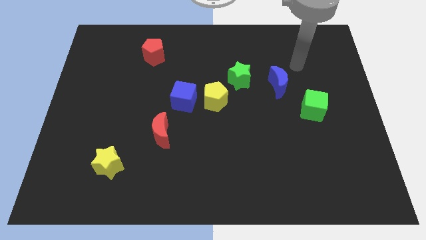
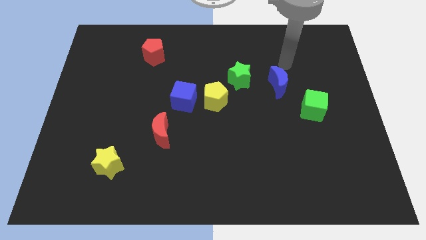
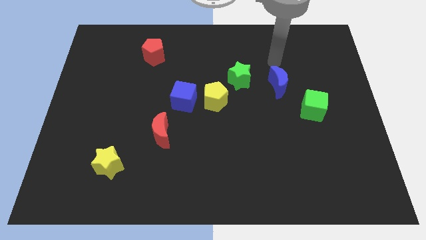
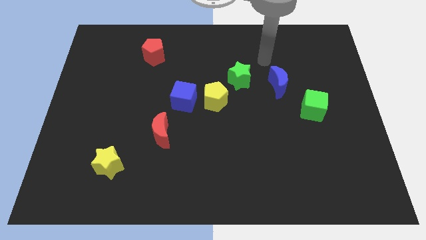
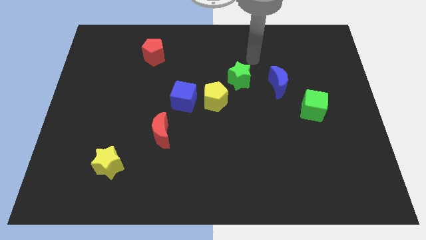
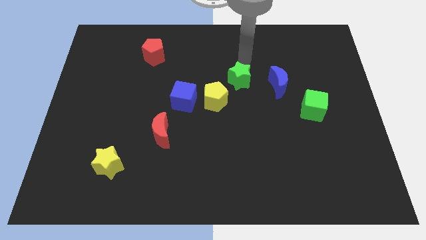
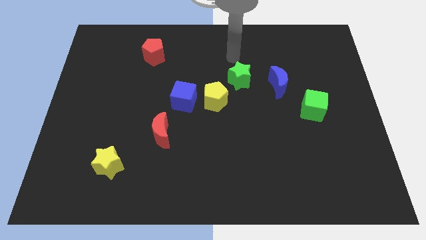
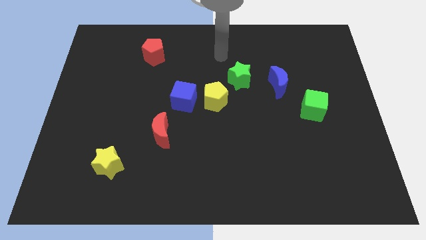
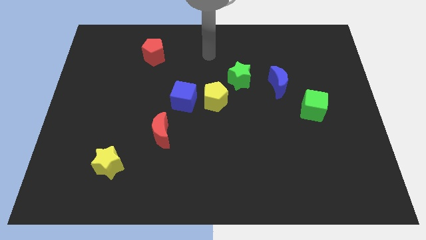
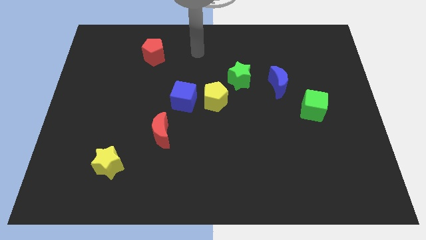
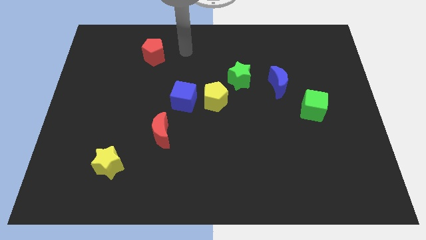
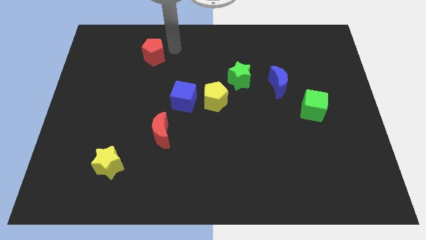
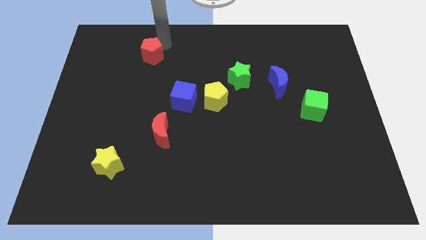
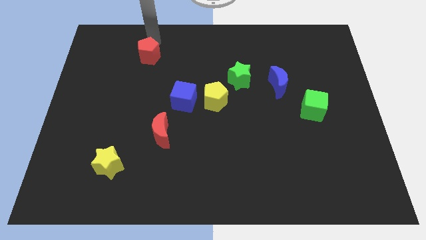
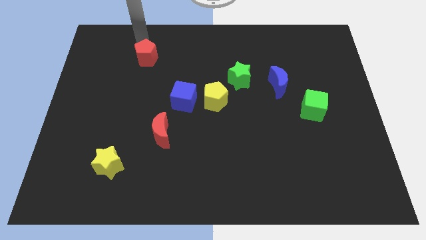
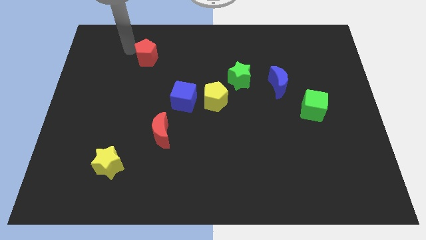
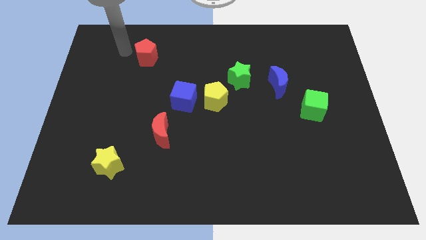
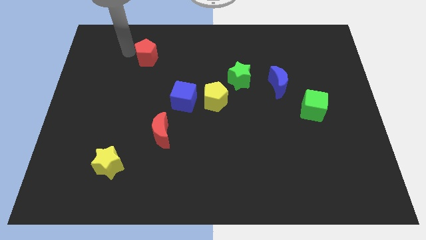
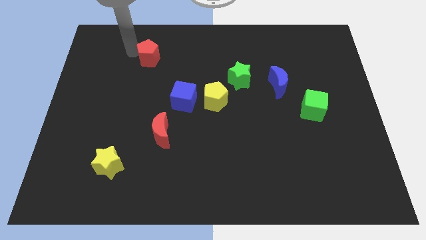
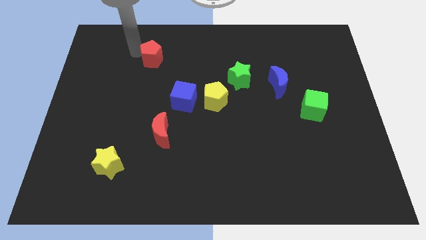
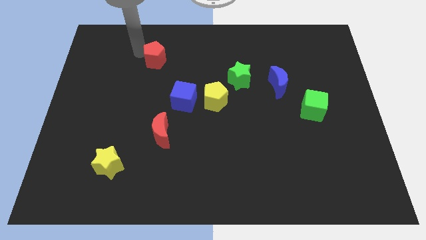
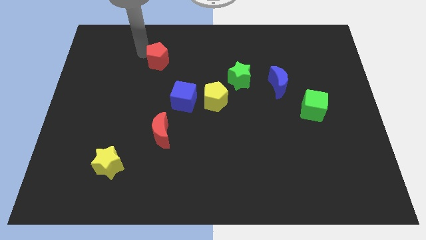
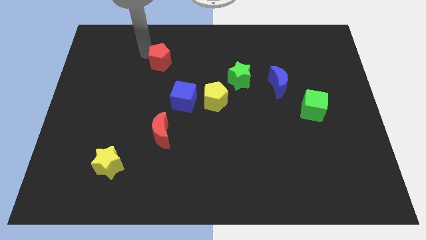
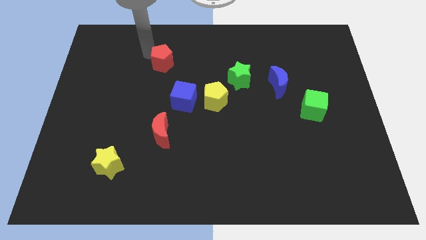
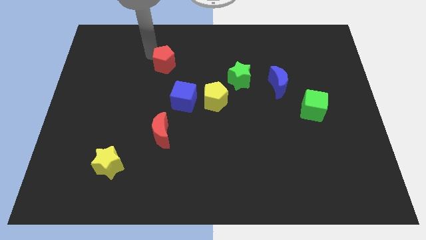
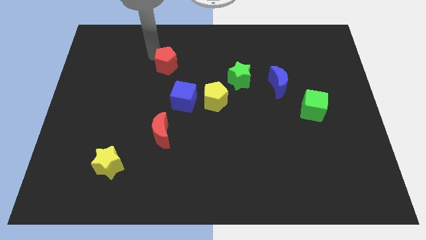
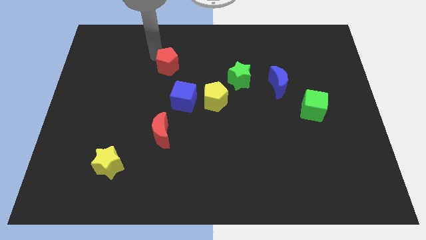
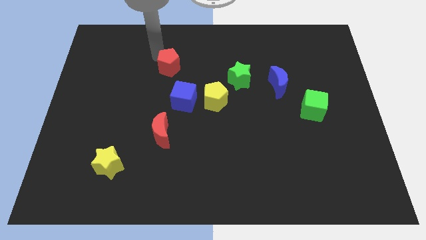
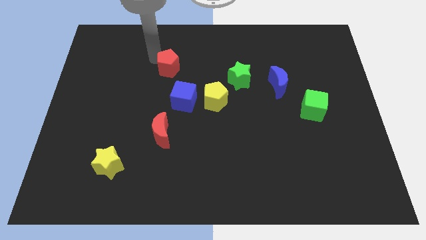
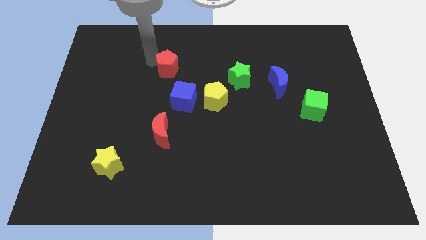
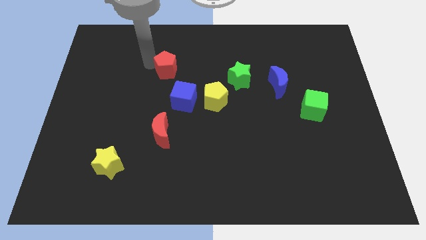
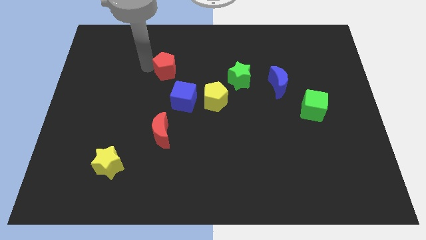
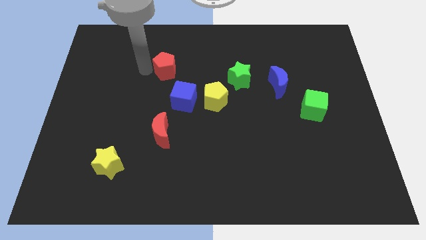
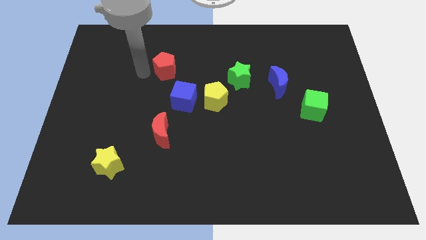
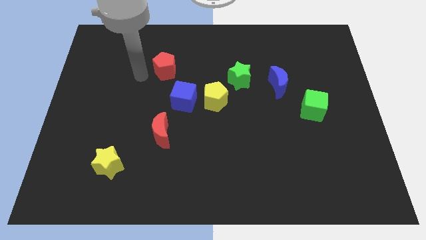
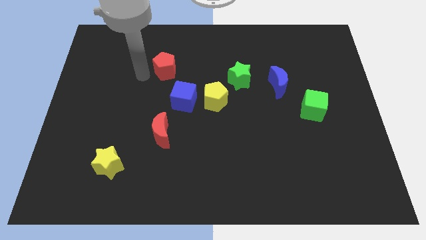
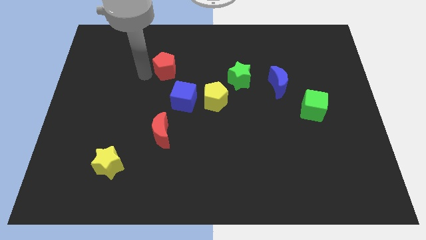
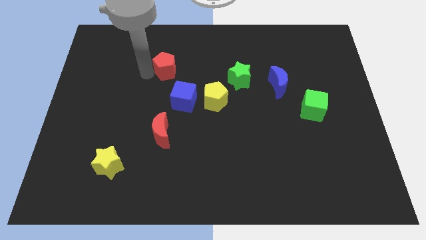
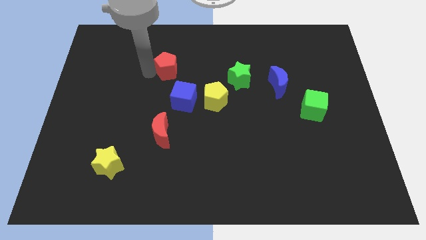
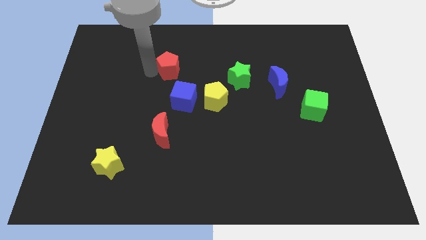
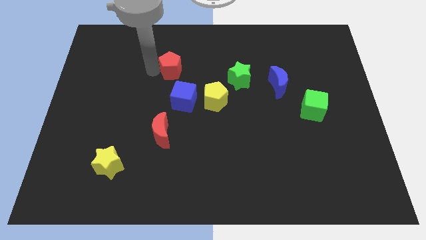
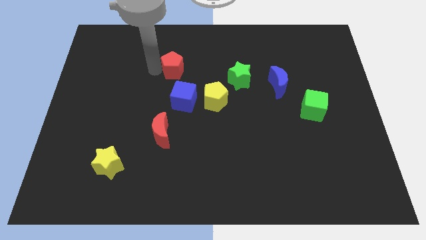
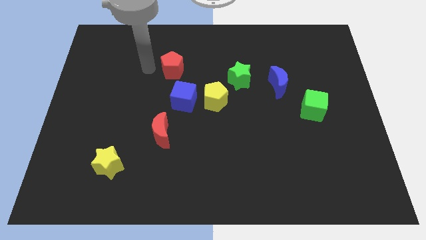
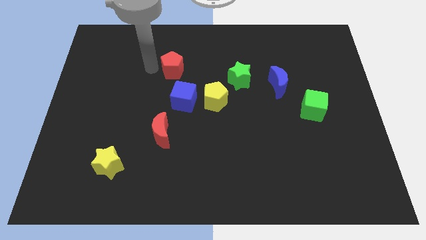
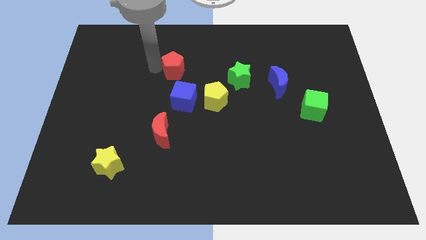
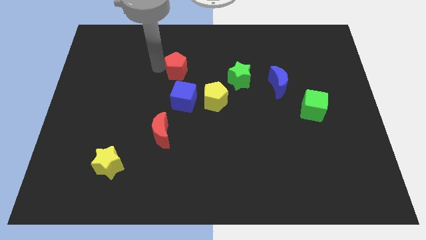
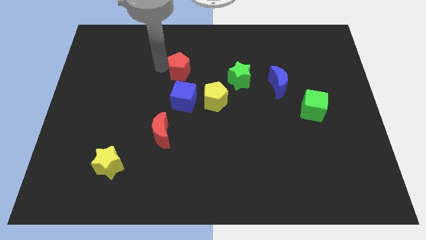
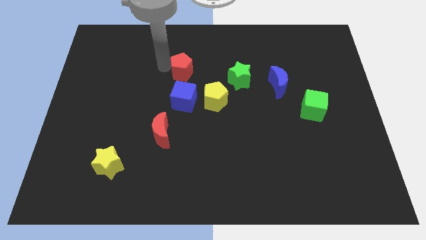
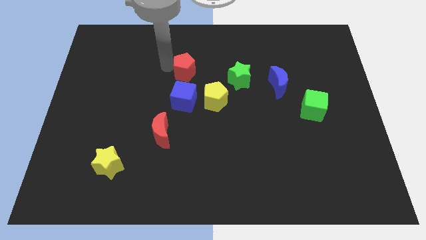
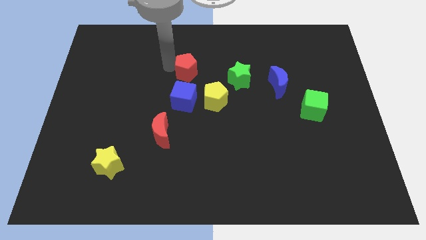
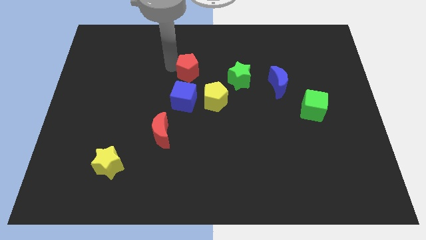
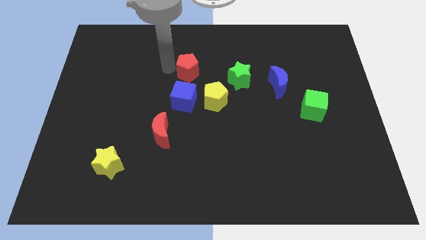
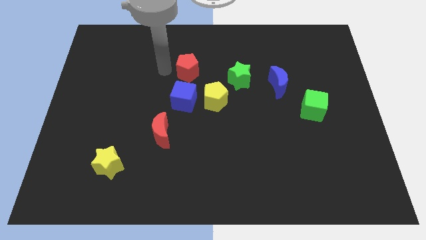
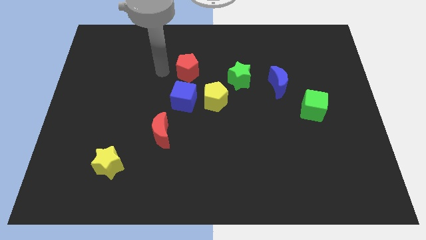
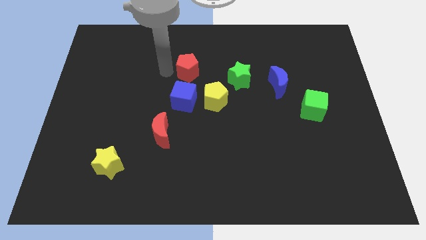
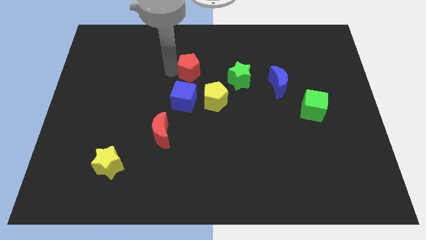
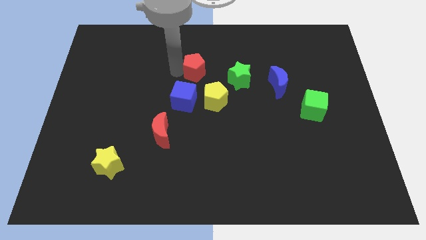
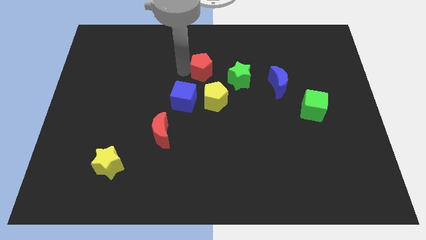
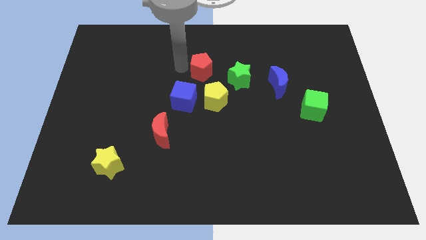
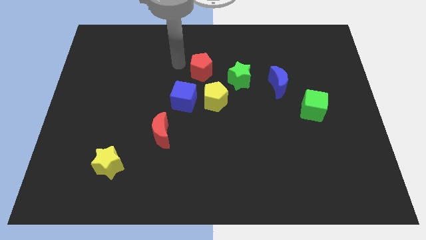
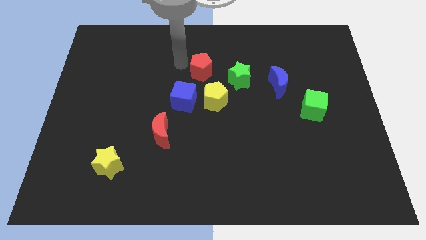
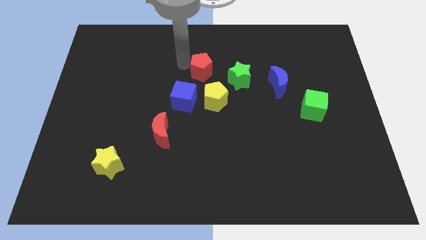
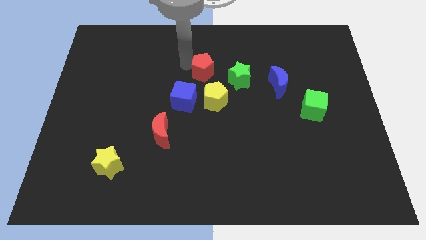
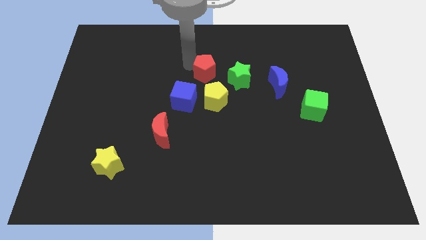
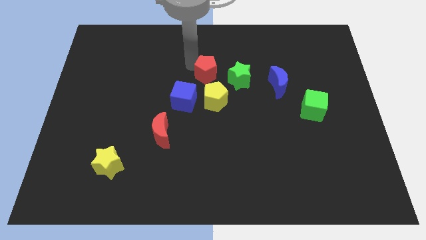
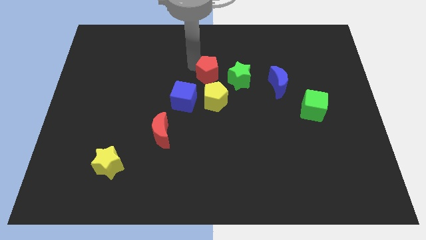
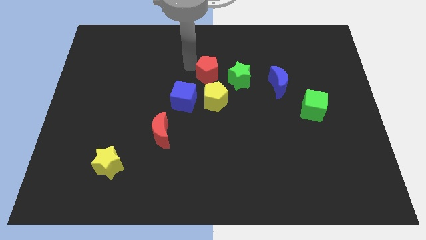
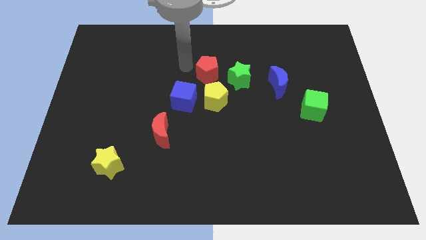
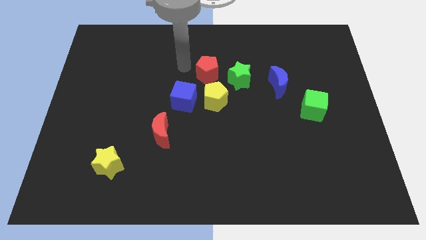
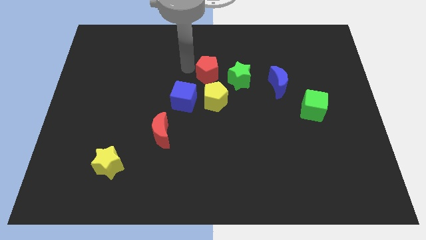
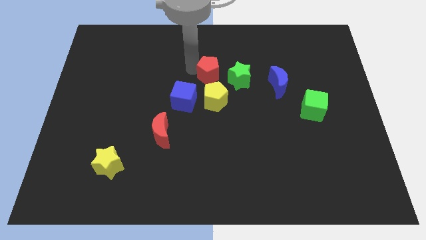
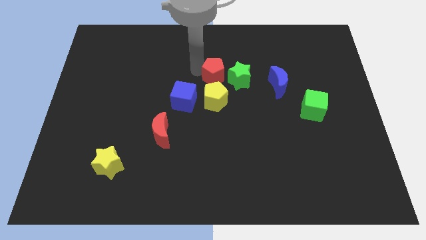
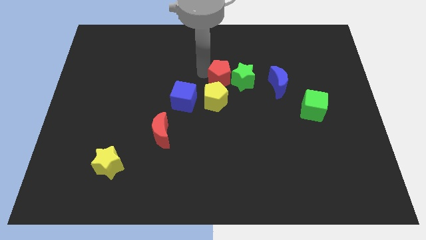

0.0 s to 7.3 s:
push the red pentagon to the green star
